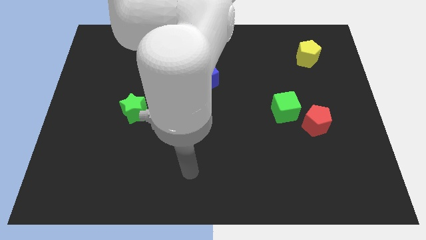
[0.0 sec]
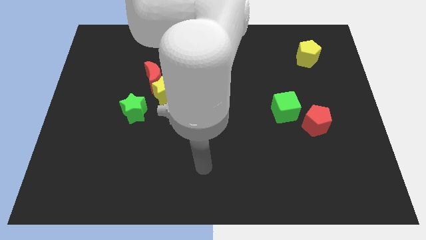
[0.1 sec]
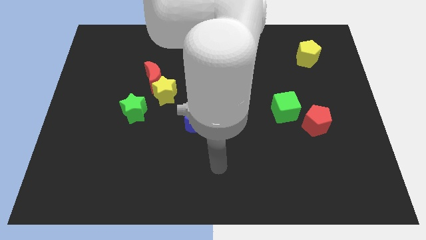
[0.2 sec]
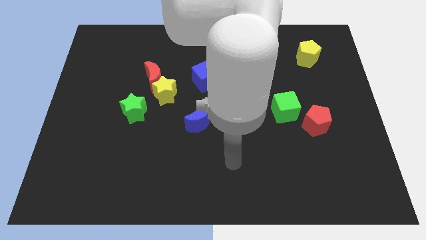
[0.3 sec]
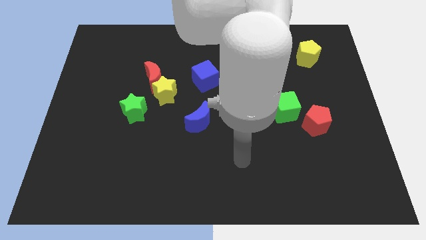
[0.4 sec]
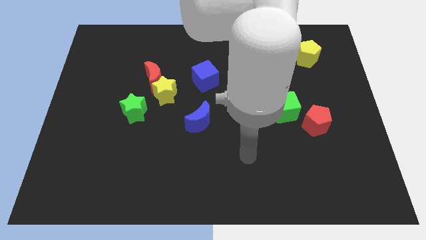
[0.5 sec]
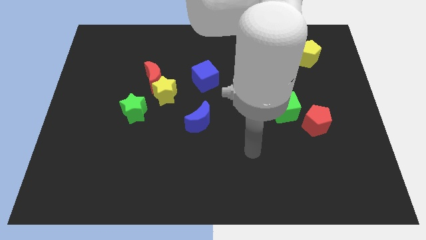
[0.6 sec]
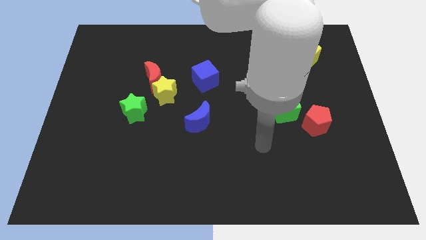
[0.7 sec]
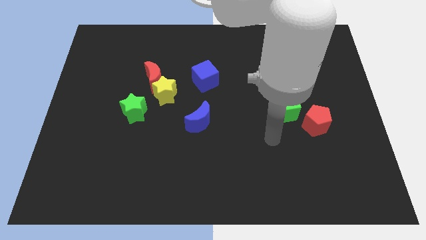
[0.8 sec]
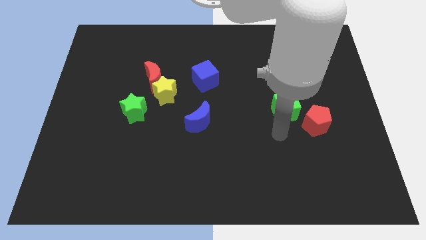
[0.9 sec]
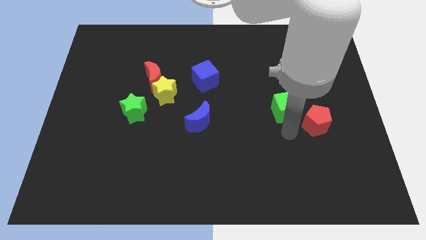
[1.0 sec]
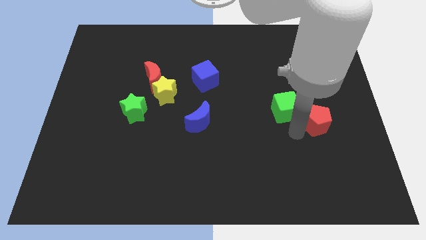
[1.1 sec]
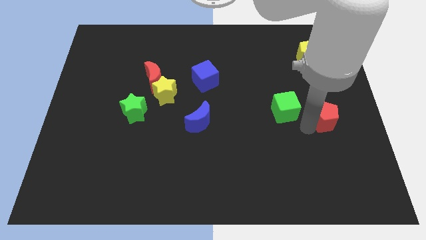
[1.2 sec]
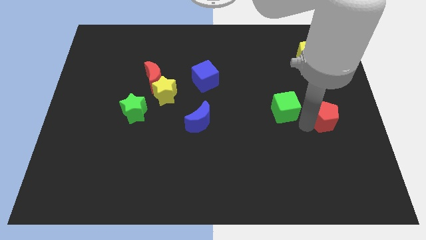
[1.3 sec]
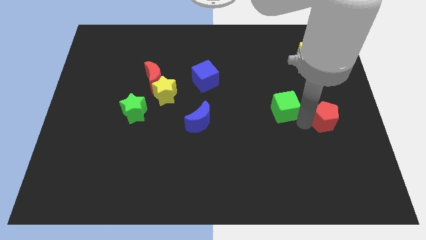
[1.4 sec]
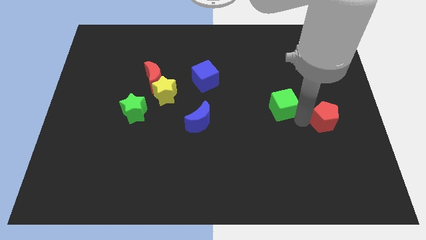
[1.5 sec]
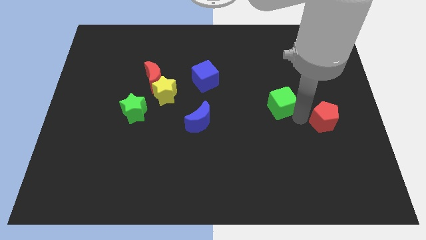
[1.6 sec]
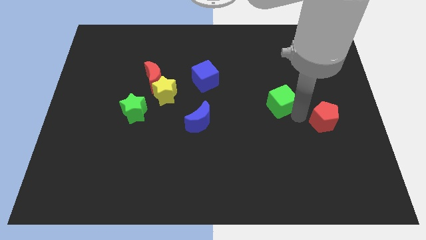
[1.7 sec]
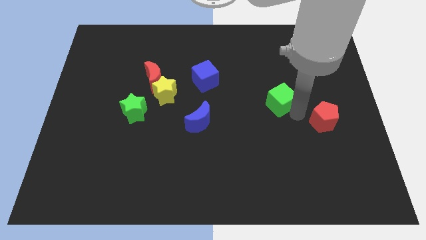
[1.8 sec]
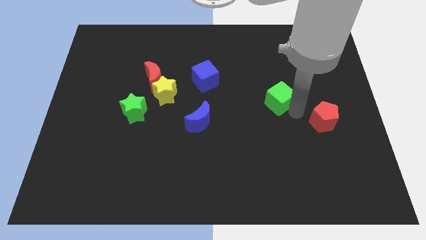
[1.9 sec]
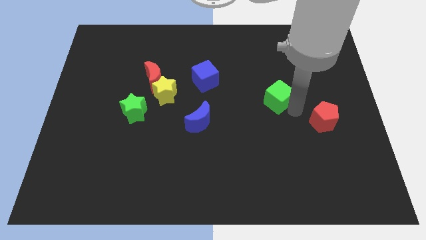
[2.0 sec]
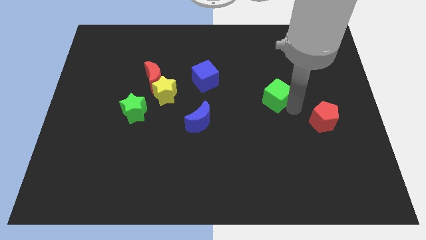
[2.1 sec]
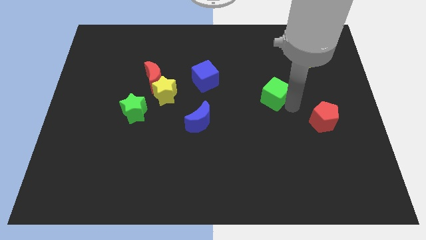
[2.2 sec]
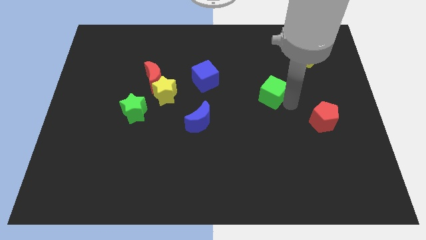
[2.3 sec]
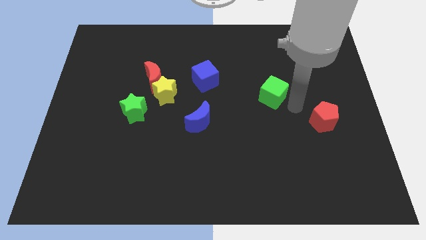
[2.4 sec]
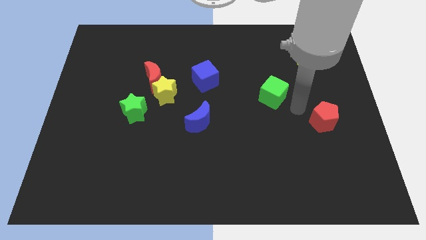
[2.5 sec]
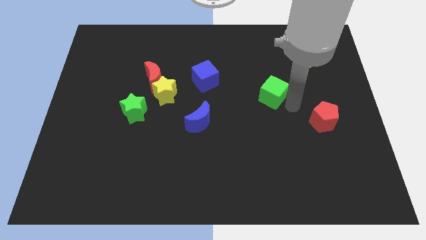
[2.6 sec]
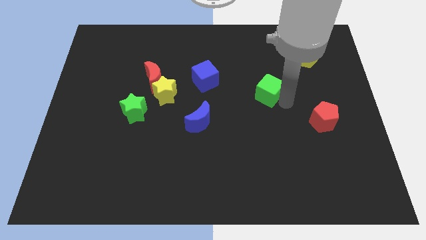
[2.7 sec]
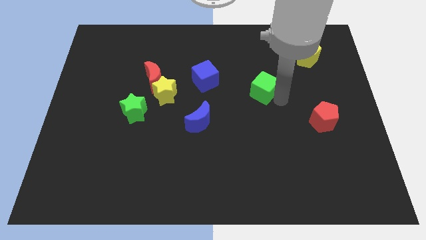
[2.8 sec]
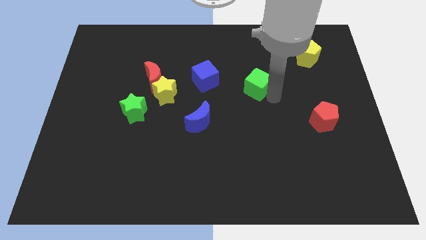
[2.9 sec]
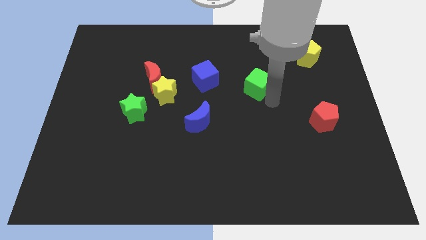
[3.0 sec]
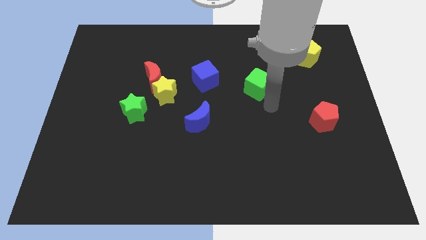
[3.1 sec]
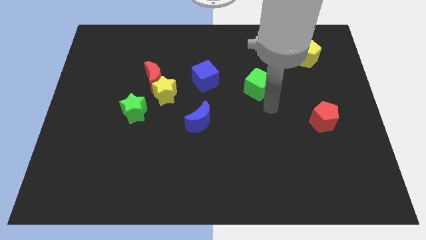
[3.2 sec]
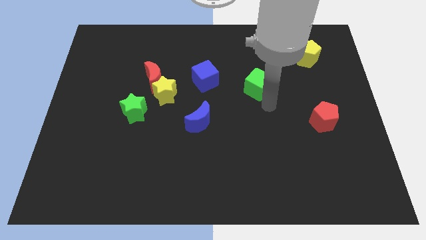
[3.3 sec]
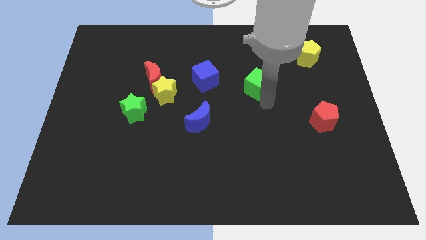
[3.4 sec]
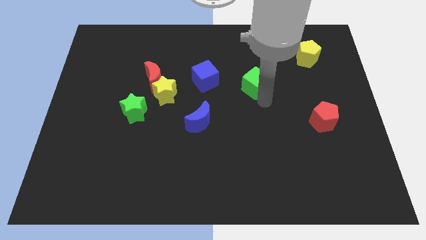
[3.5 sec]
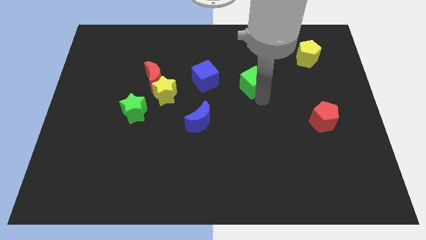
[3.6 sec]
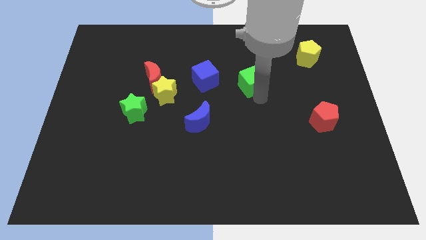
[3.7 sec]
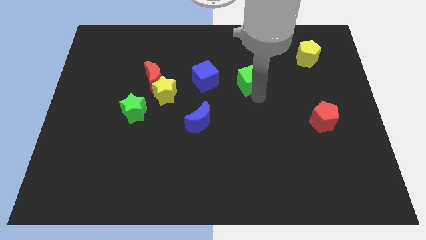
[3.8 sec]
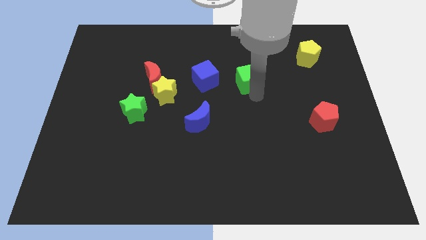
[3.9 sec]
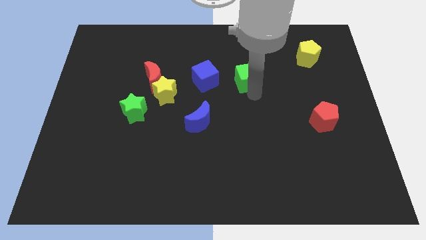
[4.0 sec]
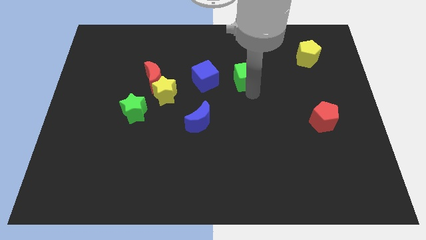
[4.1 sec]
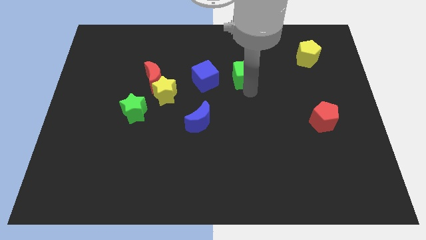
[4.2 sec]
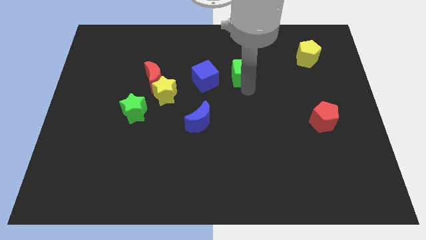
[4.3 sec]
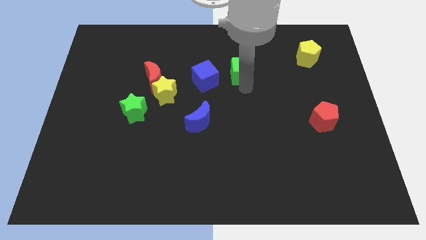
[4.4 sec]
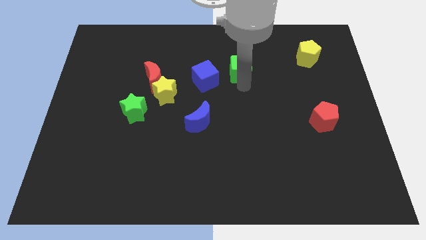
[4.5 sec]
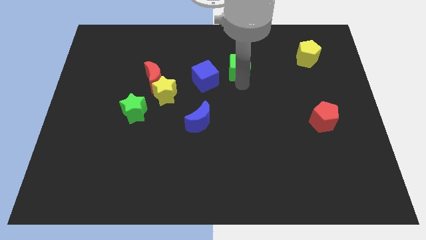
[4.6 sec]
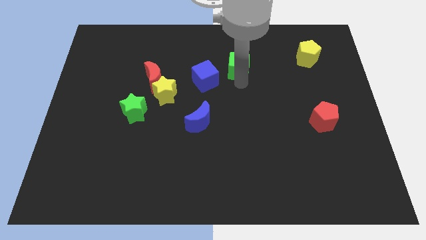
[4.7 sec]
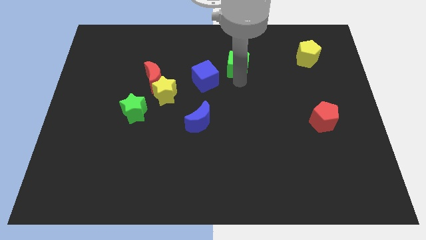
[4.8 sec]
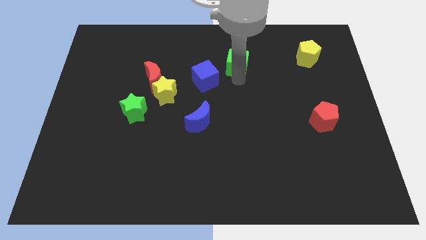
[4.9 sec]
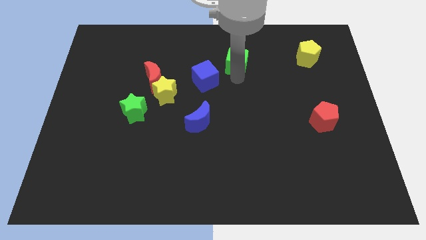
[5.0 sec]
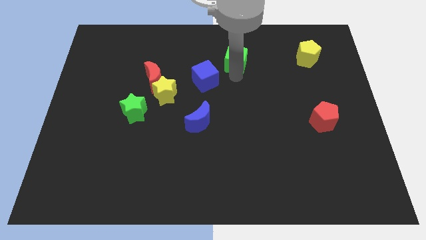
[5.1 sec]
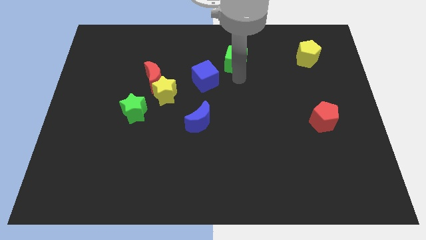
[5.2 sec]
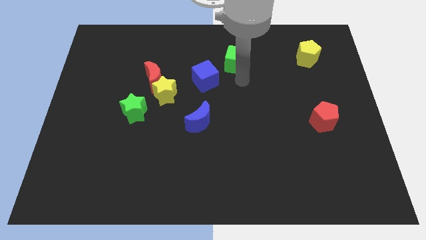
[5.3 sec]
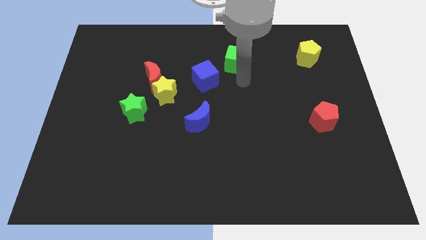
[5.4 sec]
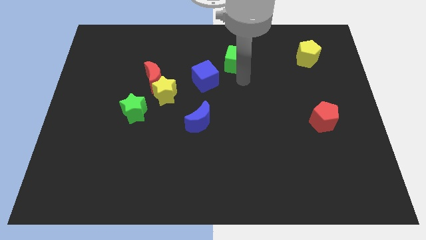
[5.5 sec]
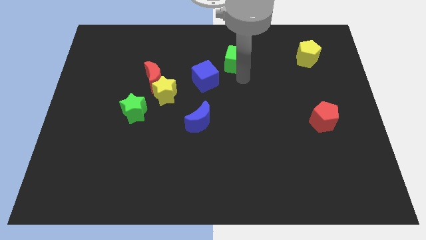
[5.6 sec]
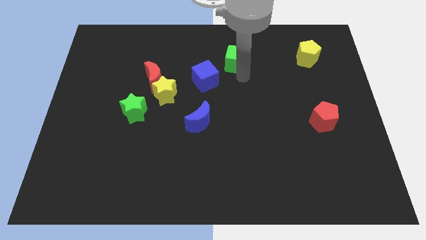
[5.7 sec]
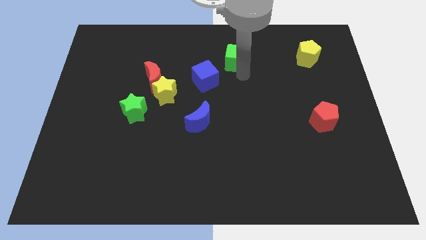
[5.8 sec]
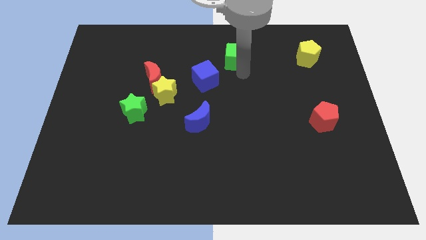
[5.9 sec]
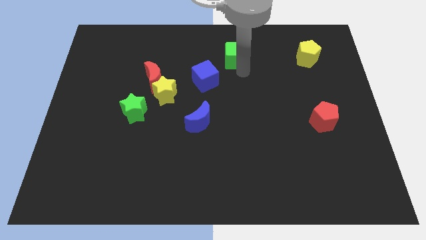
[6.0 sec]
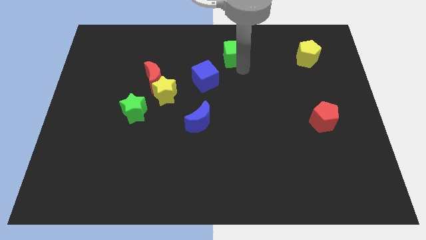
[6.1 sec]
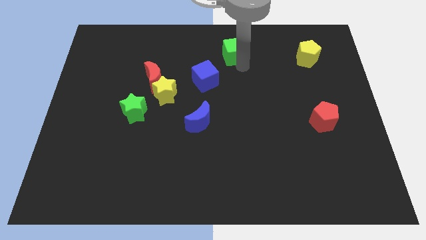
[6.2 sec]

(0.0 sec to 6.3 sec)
move the green cube to the top side

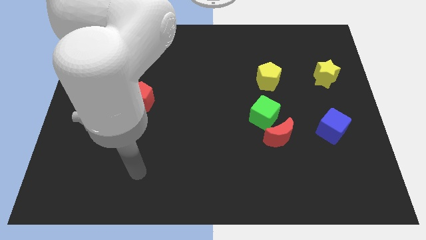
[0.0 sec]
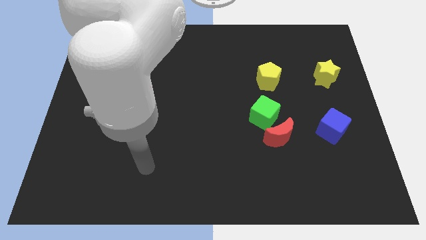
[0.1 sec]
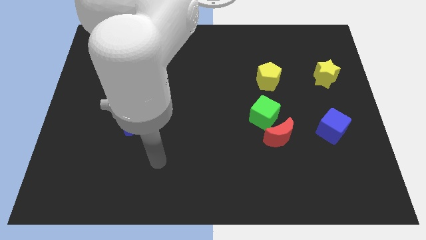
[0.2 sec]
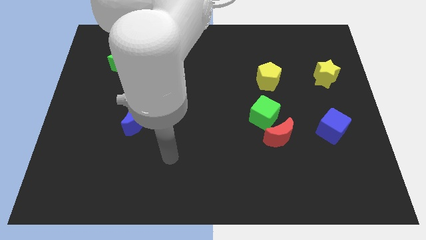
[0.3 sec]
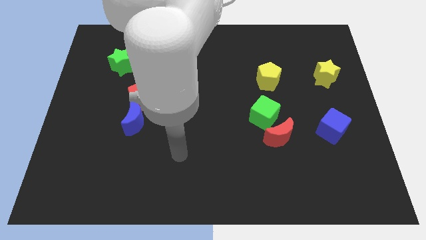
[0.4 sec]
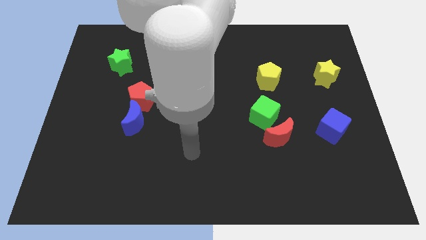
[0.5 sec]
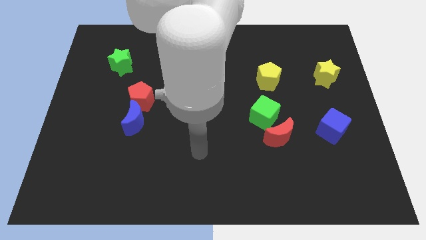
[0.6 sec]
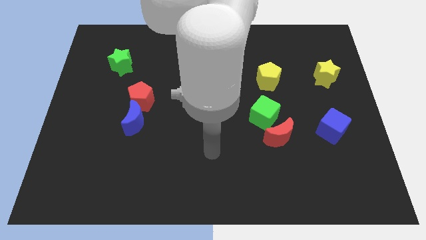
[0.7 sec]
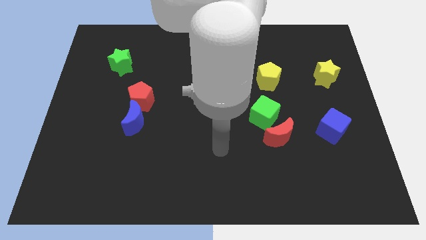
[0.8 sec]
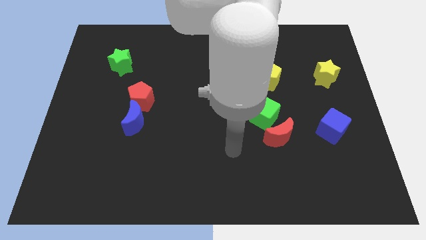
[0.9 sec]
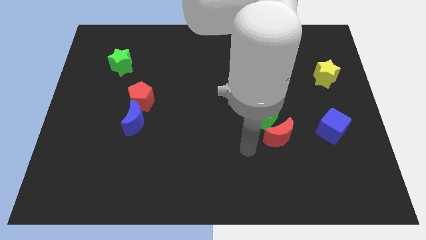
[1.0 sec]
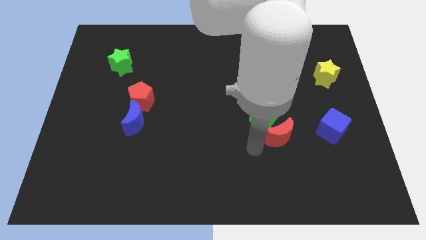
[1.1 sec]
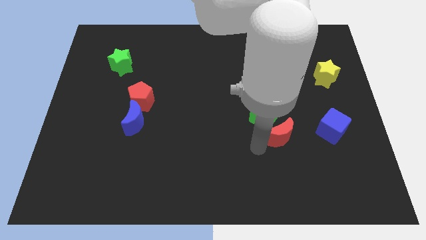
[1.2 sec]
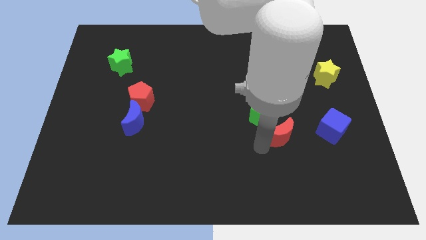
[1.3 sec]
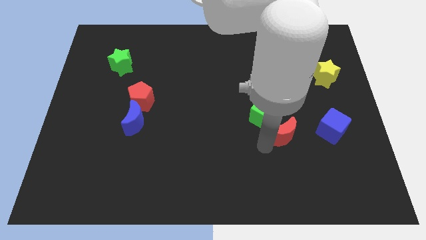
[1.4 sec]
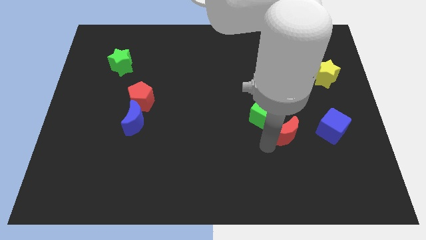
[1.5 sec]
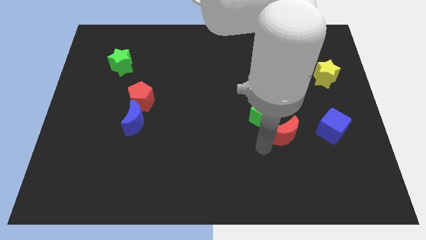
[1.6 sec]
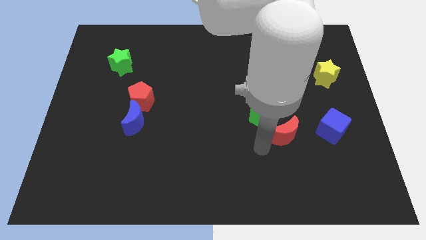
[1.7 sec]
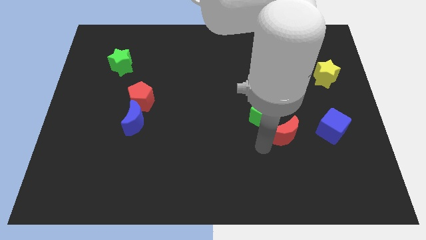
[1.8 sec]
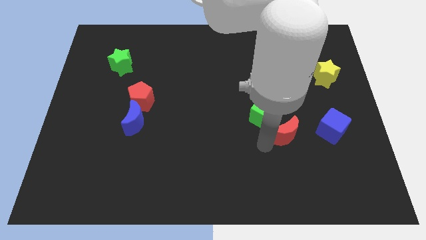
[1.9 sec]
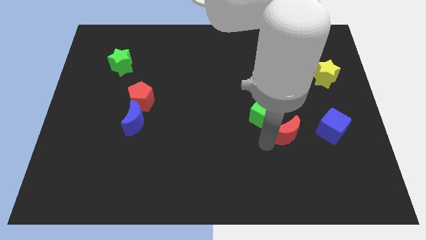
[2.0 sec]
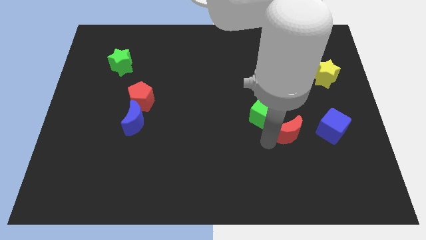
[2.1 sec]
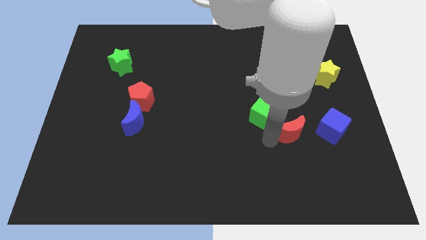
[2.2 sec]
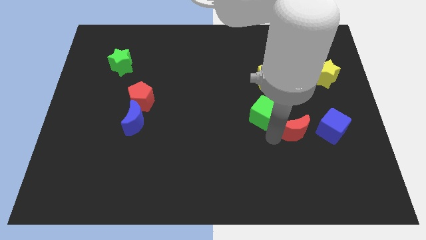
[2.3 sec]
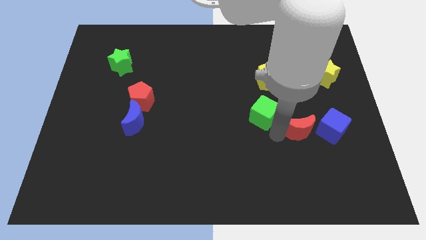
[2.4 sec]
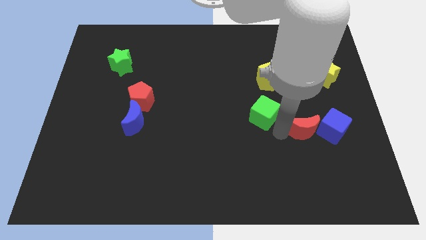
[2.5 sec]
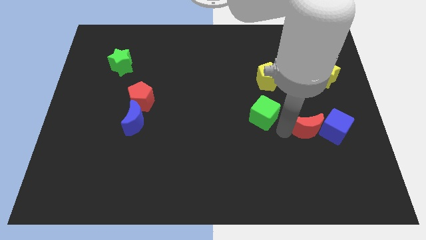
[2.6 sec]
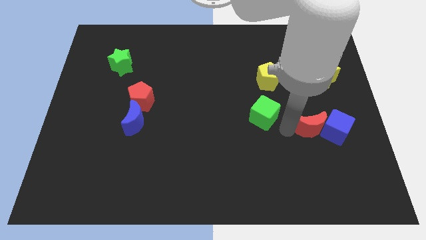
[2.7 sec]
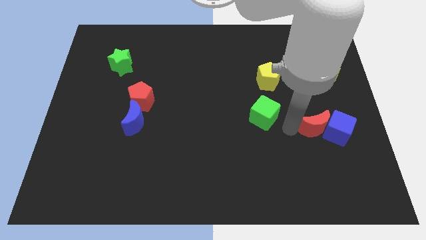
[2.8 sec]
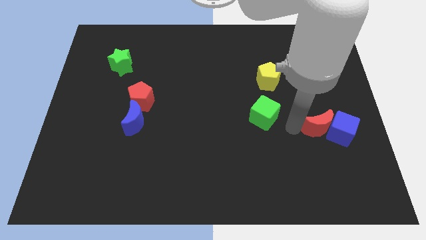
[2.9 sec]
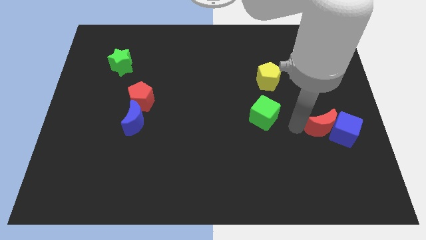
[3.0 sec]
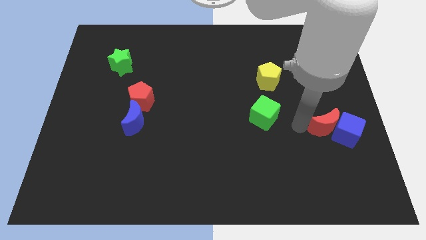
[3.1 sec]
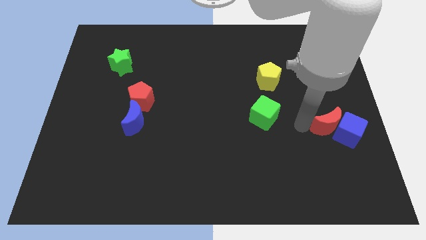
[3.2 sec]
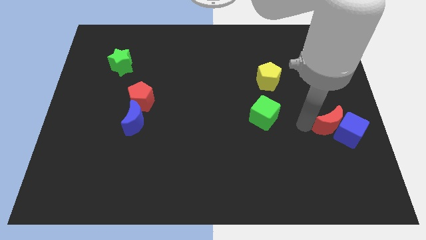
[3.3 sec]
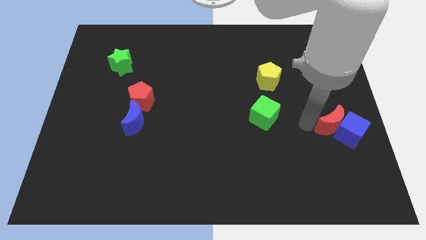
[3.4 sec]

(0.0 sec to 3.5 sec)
move the red moon to the right side
